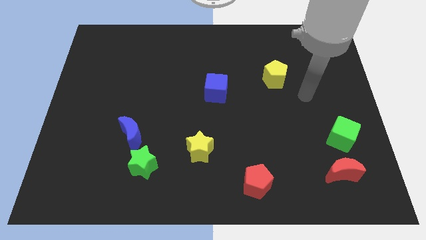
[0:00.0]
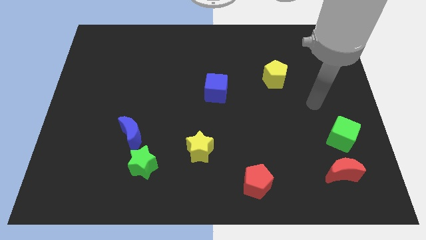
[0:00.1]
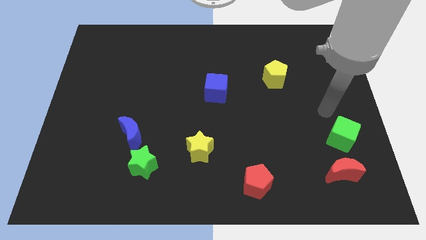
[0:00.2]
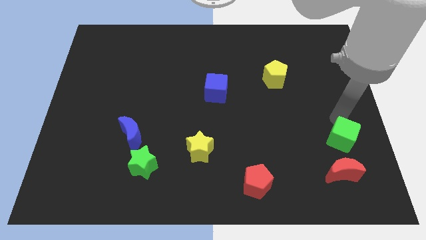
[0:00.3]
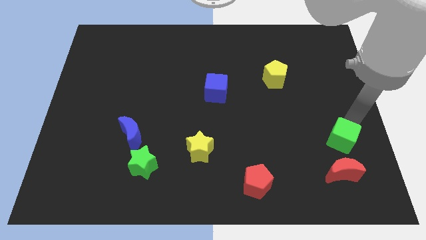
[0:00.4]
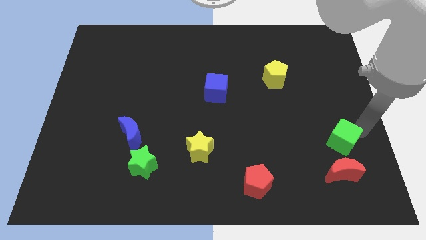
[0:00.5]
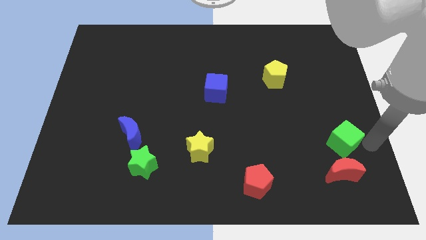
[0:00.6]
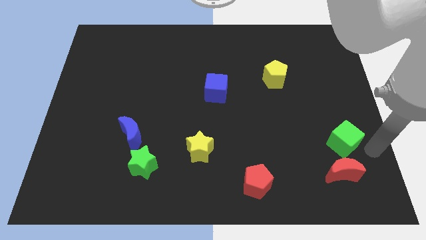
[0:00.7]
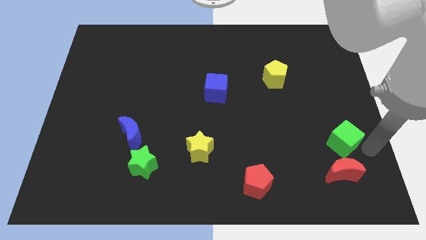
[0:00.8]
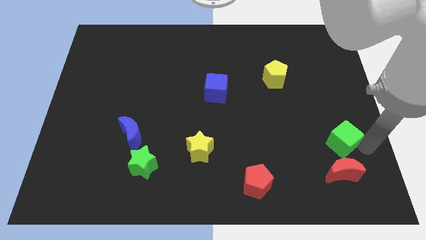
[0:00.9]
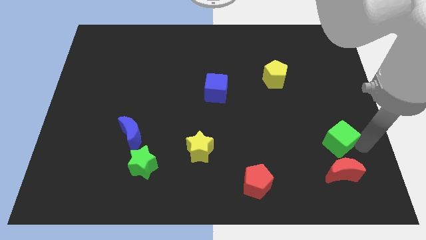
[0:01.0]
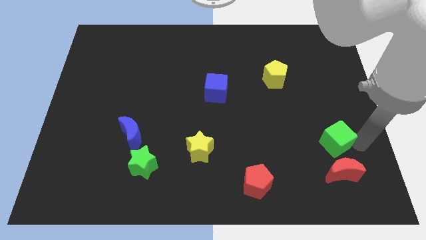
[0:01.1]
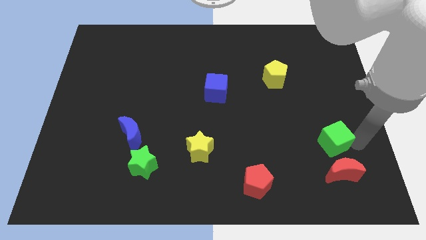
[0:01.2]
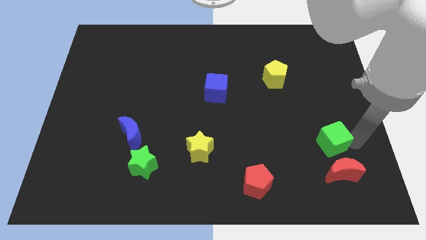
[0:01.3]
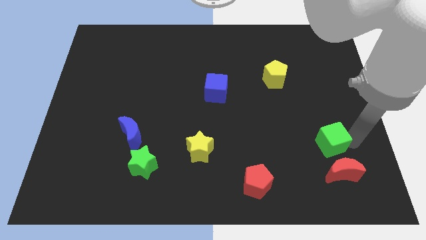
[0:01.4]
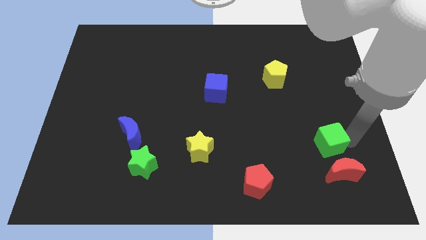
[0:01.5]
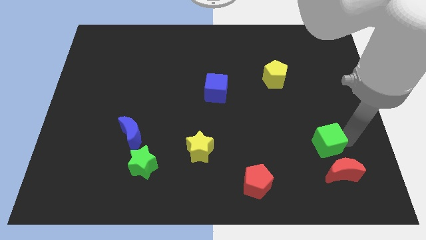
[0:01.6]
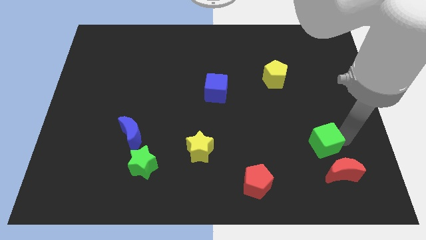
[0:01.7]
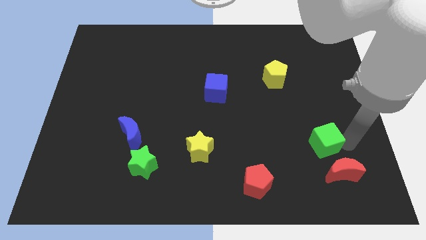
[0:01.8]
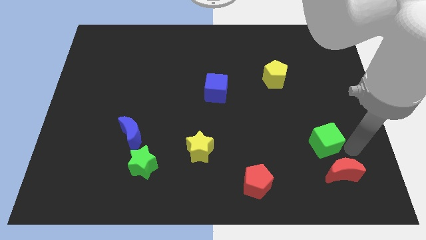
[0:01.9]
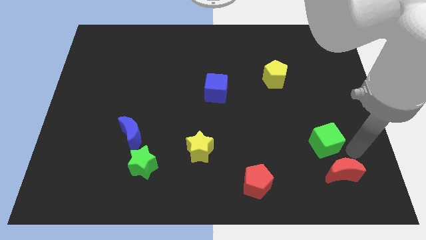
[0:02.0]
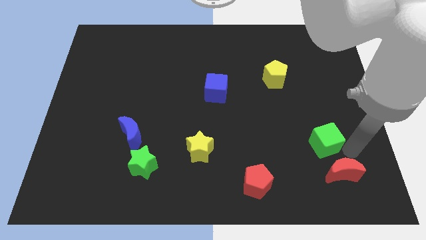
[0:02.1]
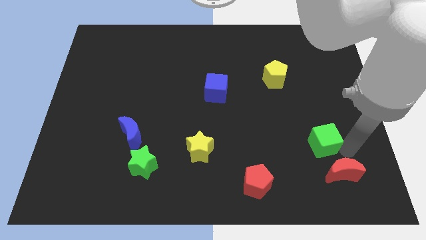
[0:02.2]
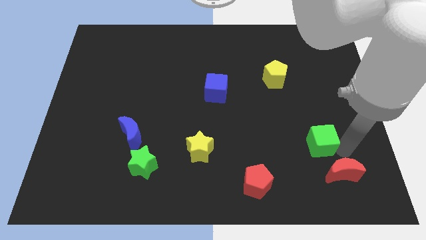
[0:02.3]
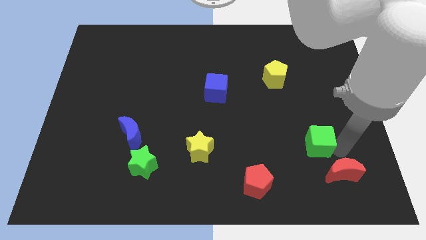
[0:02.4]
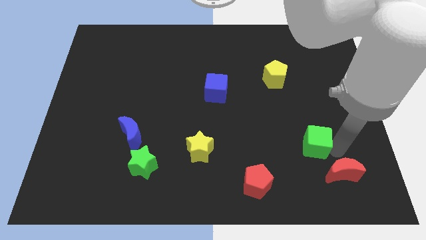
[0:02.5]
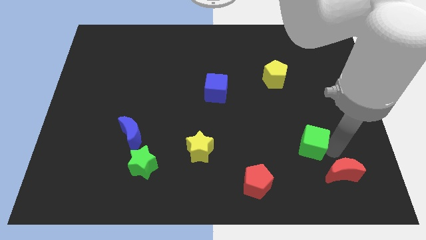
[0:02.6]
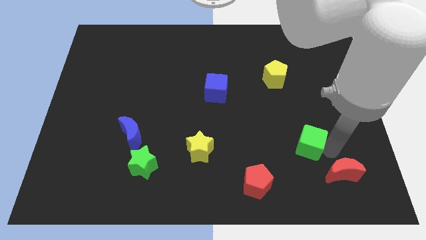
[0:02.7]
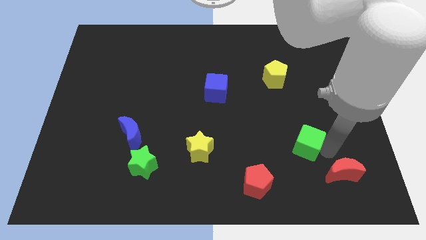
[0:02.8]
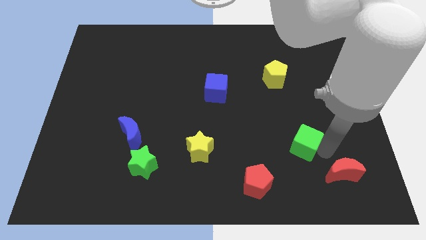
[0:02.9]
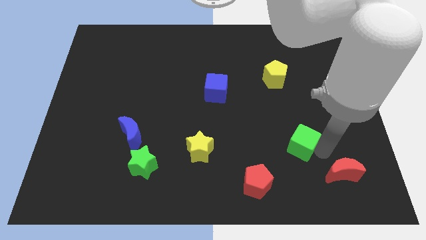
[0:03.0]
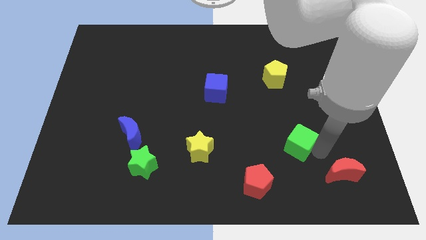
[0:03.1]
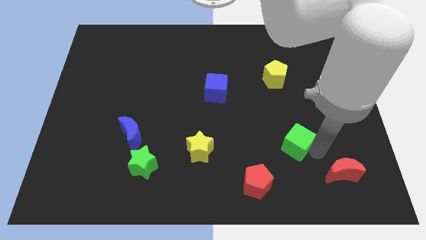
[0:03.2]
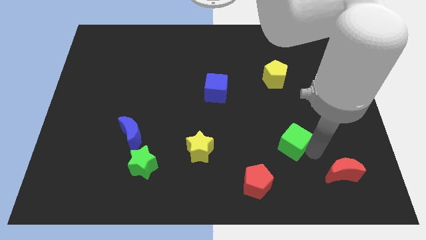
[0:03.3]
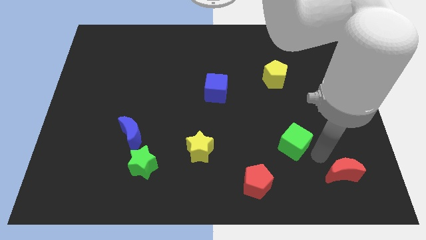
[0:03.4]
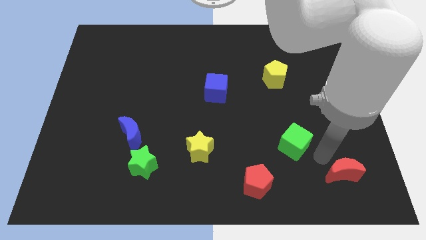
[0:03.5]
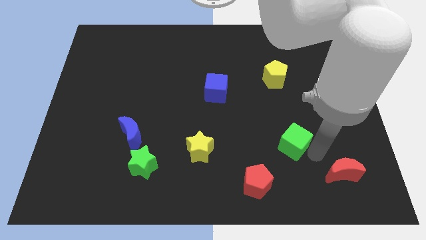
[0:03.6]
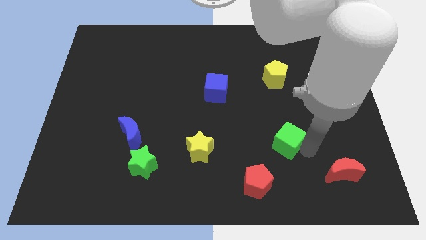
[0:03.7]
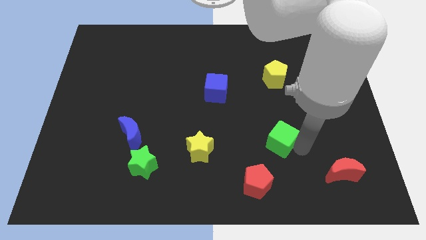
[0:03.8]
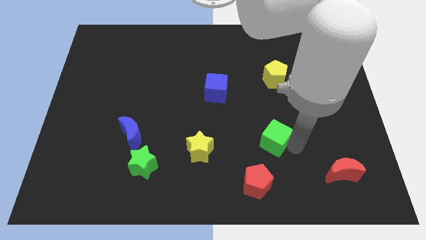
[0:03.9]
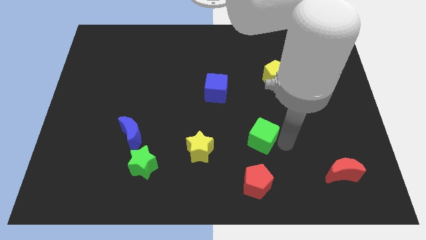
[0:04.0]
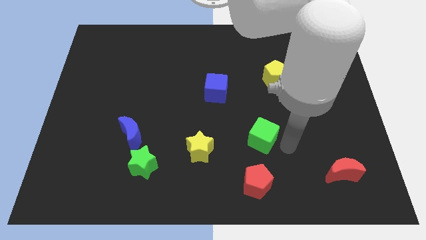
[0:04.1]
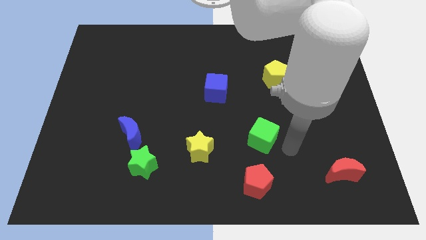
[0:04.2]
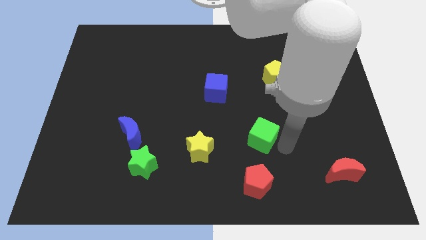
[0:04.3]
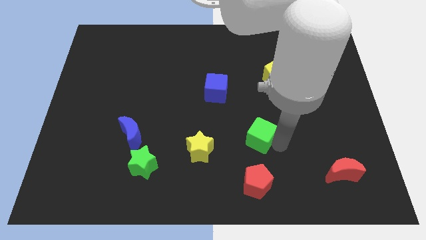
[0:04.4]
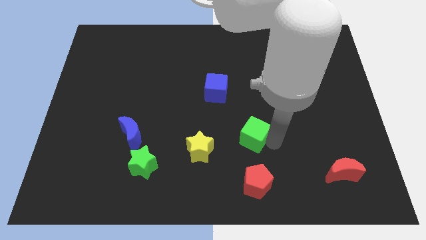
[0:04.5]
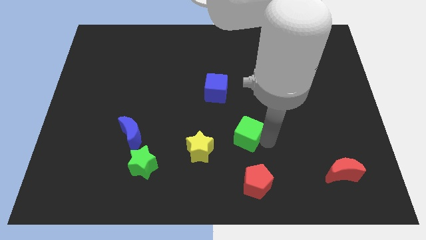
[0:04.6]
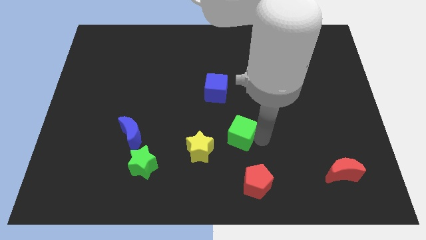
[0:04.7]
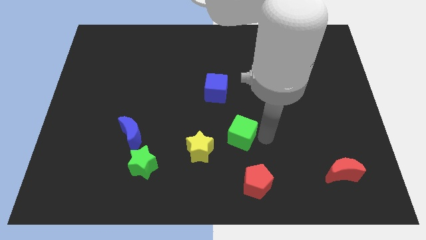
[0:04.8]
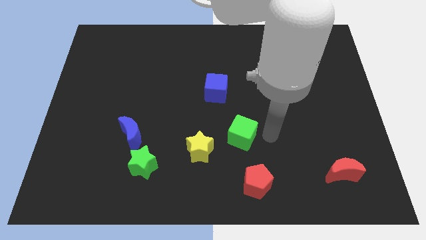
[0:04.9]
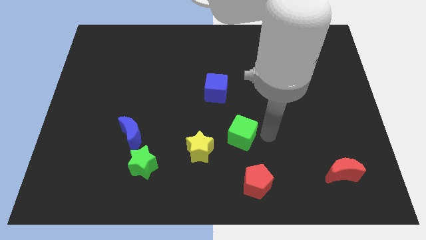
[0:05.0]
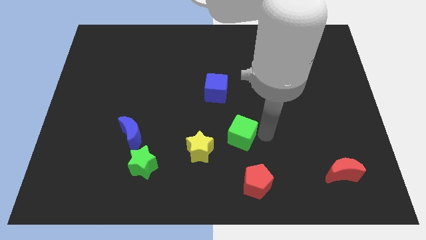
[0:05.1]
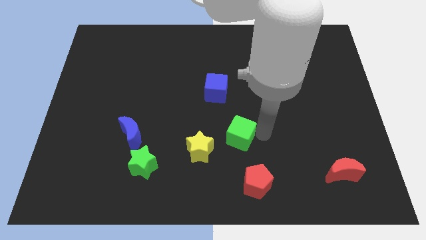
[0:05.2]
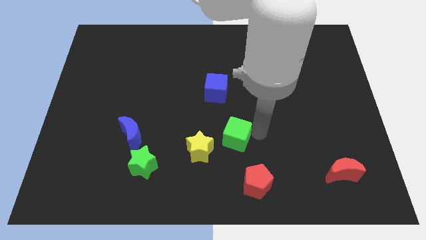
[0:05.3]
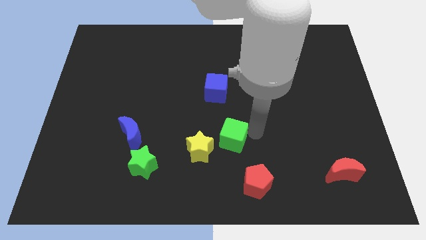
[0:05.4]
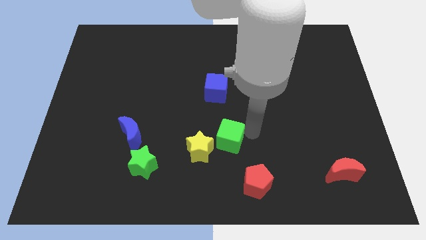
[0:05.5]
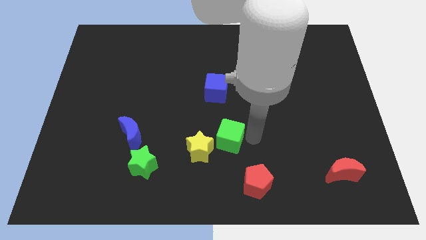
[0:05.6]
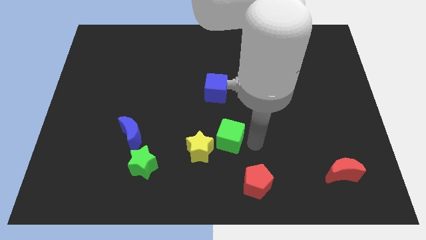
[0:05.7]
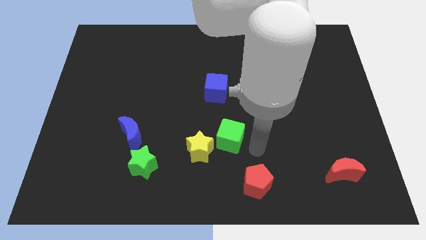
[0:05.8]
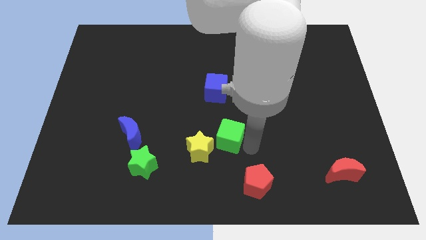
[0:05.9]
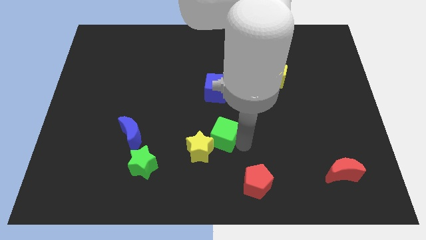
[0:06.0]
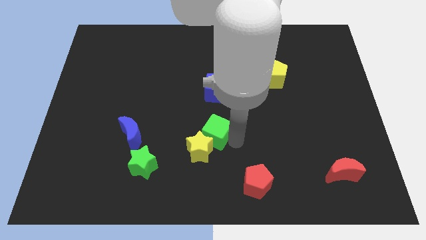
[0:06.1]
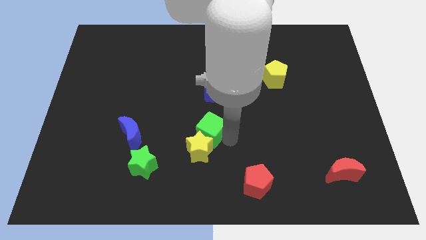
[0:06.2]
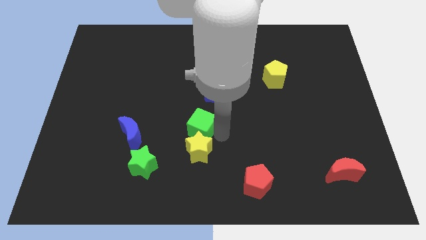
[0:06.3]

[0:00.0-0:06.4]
push the green cube diagonally up and to the left of the yellow star
